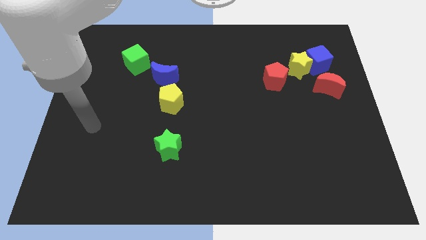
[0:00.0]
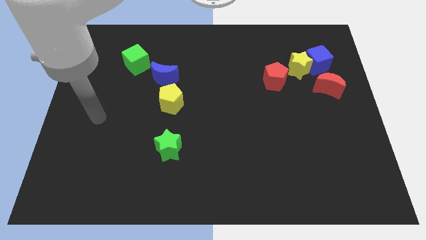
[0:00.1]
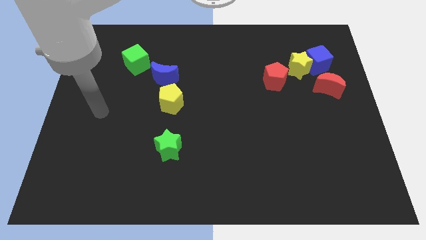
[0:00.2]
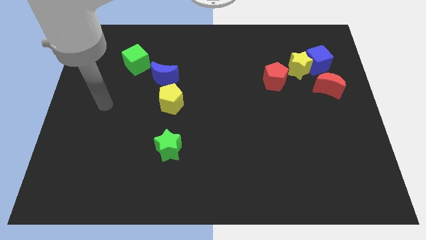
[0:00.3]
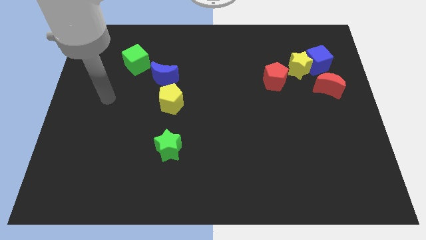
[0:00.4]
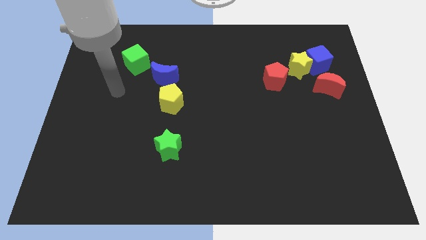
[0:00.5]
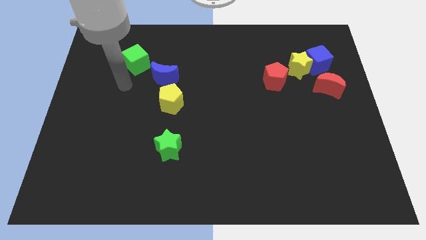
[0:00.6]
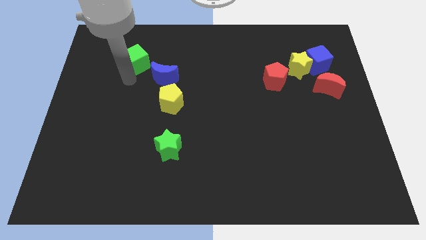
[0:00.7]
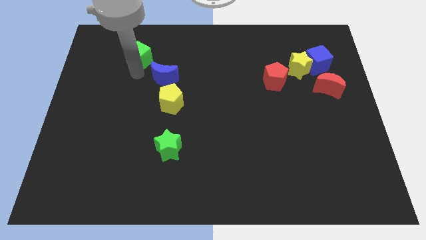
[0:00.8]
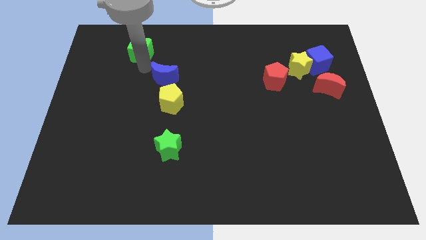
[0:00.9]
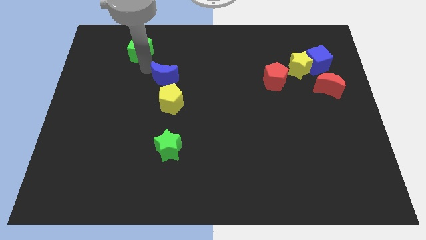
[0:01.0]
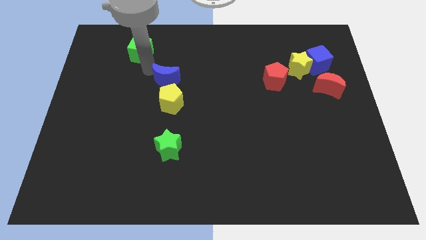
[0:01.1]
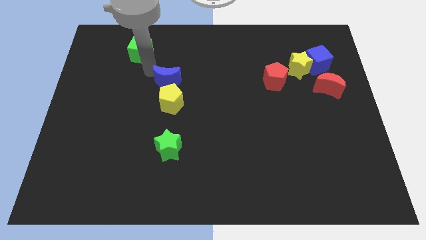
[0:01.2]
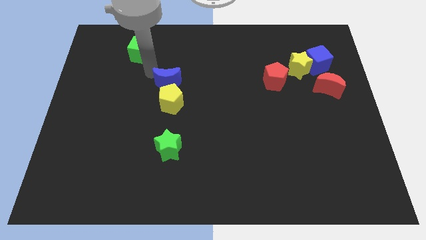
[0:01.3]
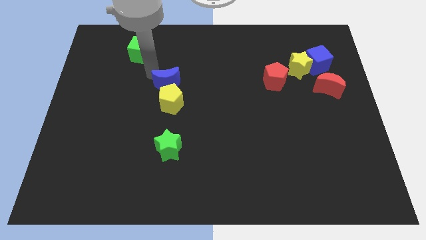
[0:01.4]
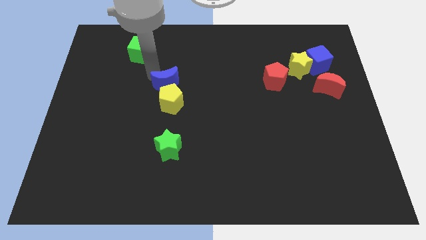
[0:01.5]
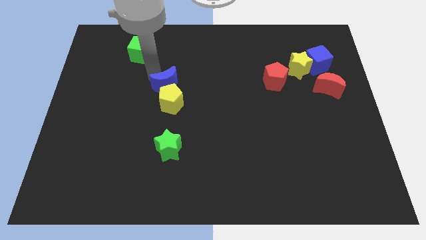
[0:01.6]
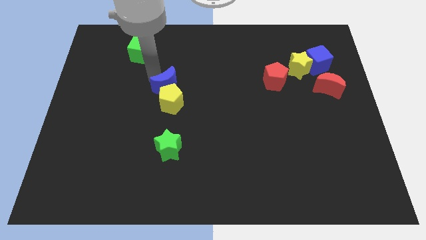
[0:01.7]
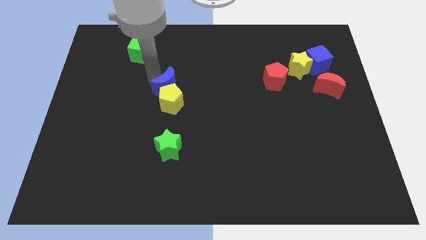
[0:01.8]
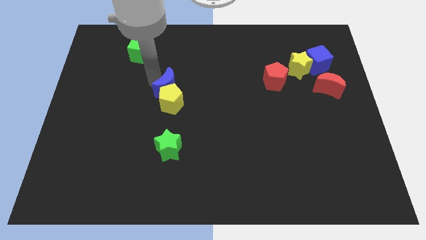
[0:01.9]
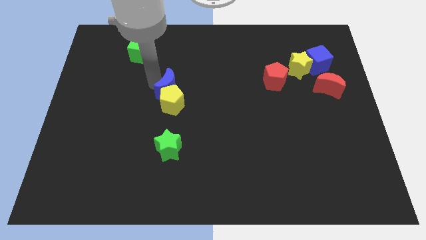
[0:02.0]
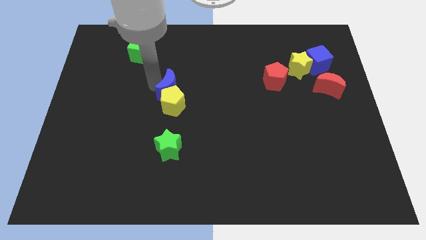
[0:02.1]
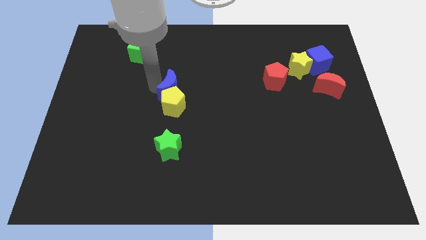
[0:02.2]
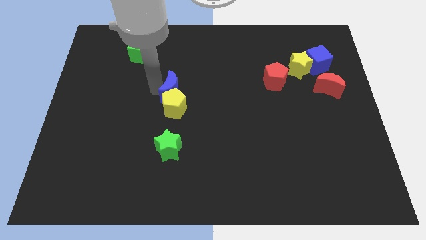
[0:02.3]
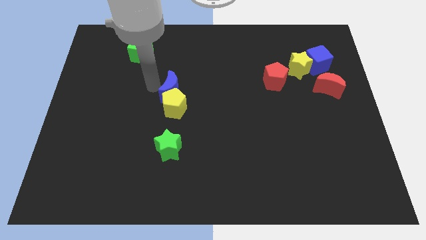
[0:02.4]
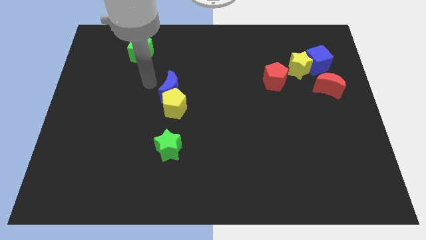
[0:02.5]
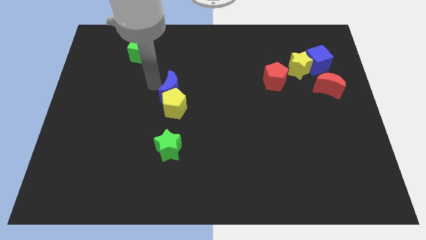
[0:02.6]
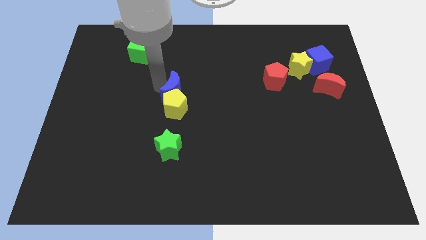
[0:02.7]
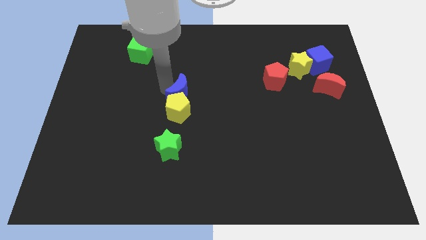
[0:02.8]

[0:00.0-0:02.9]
slightly slide the blue moon downwards and to the right

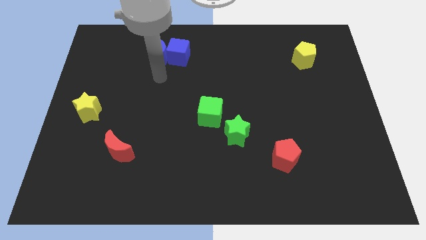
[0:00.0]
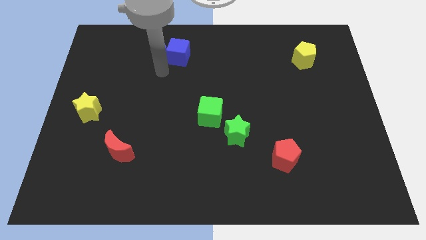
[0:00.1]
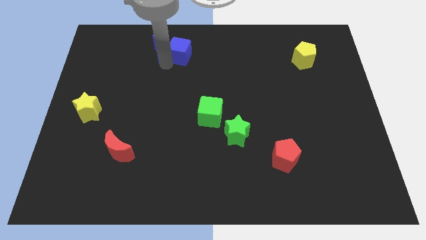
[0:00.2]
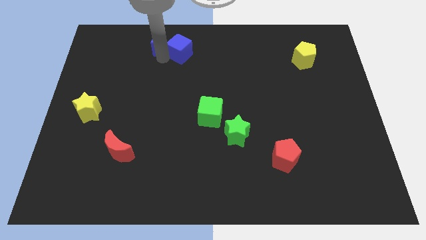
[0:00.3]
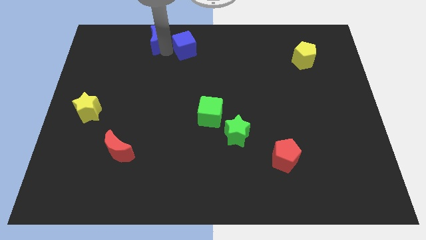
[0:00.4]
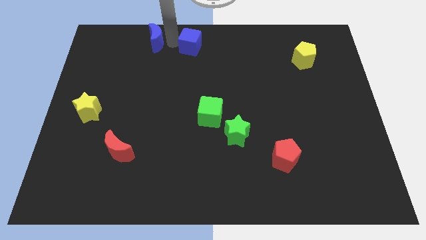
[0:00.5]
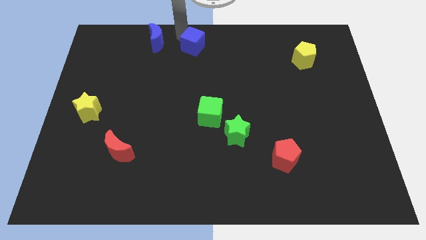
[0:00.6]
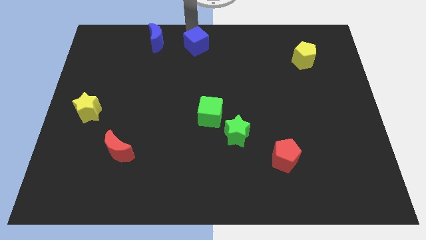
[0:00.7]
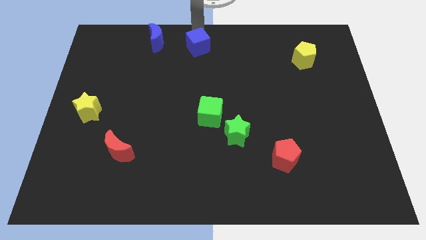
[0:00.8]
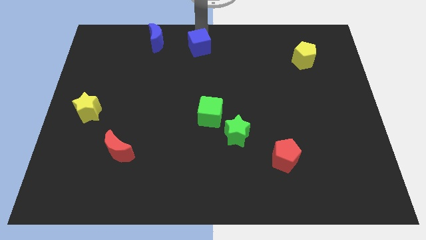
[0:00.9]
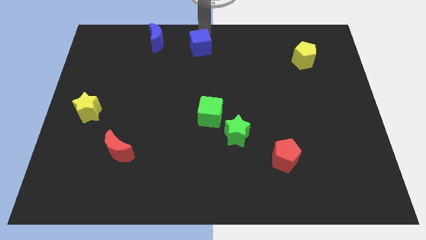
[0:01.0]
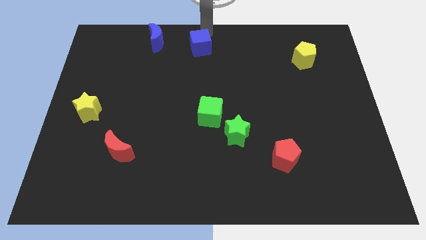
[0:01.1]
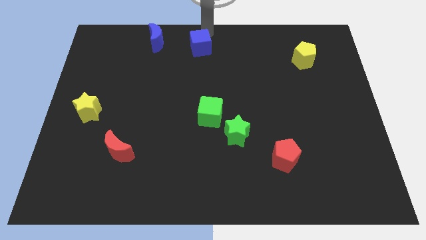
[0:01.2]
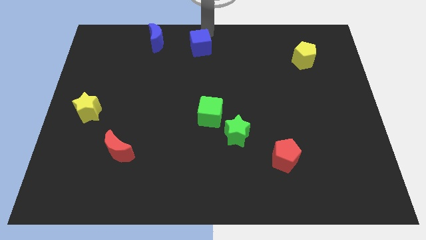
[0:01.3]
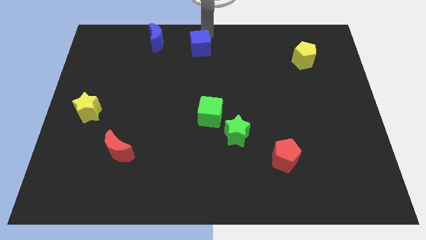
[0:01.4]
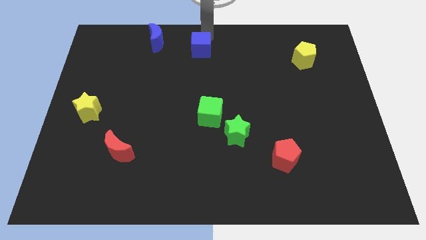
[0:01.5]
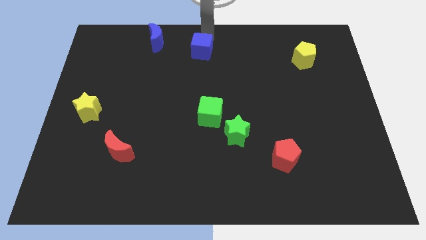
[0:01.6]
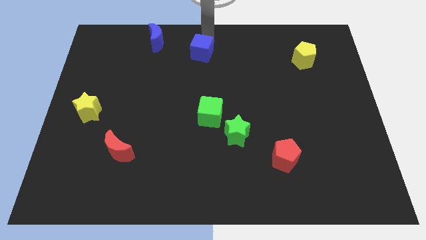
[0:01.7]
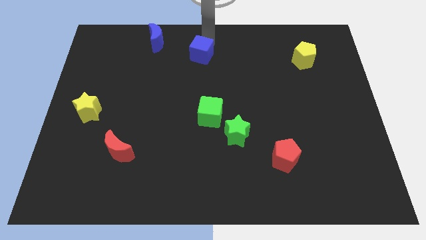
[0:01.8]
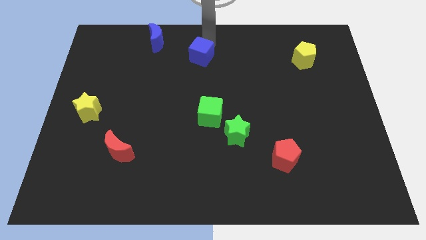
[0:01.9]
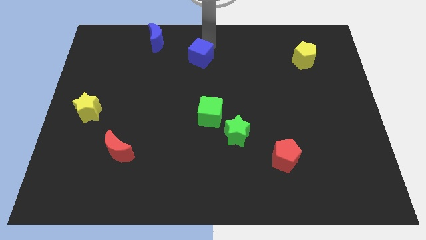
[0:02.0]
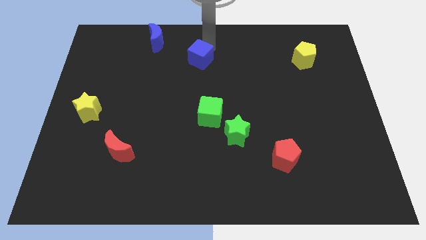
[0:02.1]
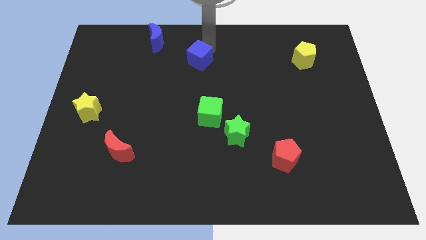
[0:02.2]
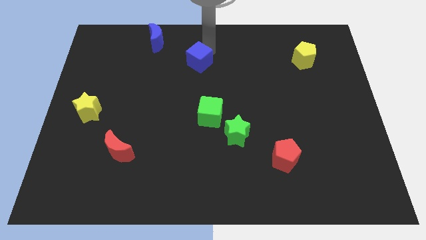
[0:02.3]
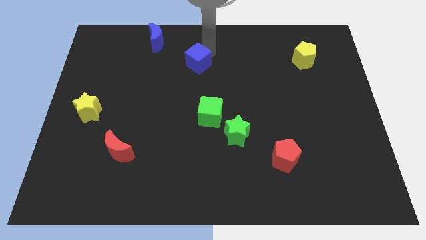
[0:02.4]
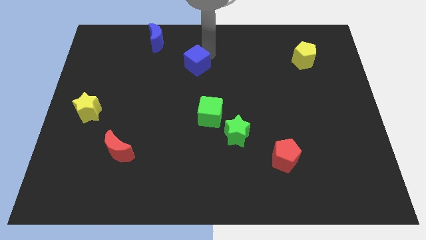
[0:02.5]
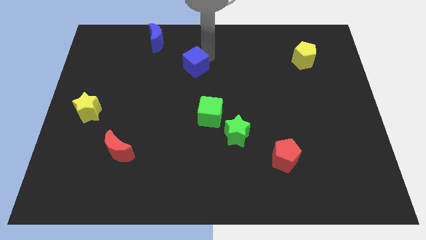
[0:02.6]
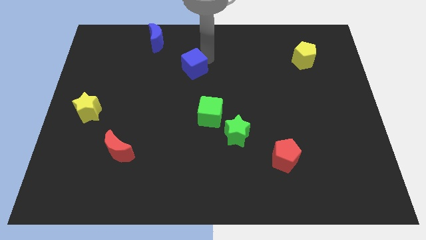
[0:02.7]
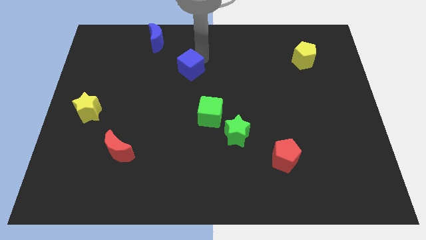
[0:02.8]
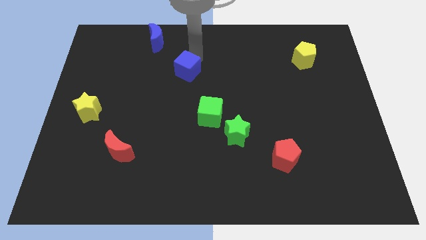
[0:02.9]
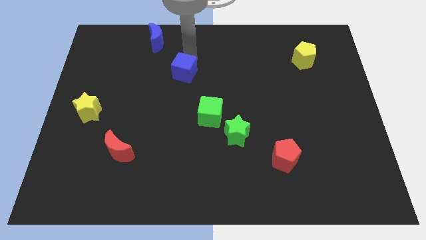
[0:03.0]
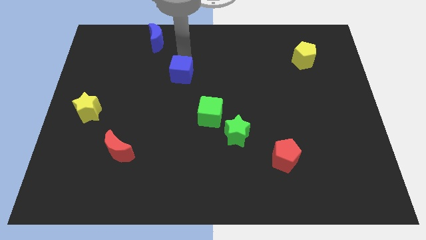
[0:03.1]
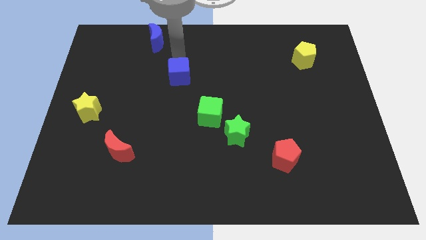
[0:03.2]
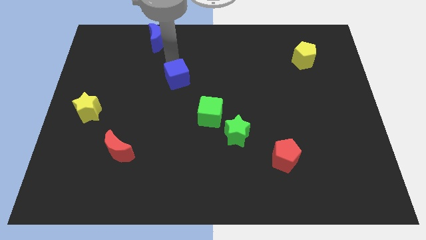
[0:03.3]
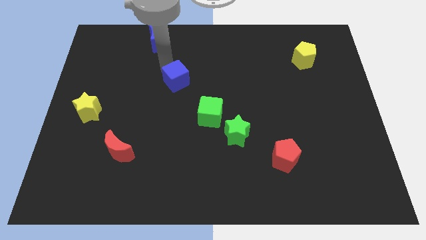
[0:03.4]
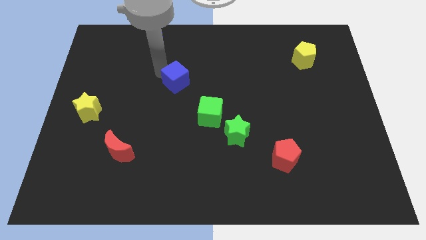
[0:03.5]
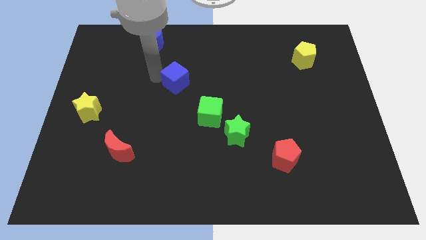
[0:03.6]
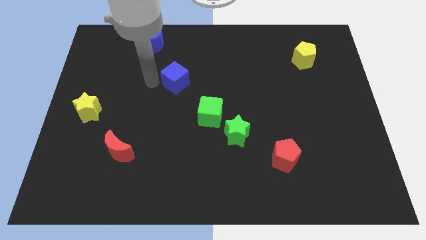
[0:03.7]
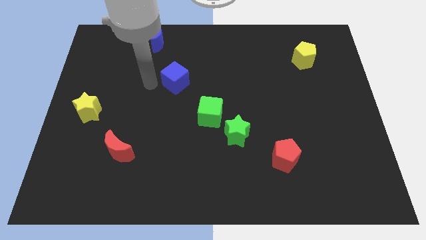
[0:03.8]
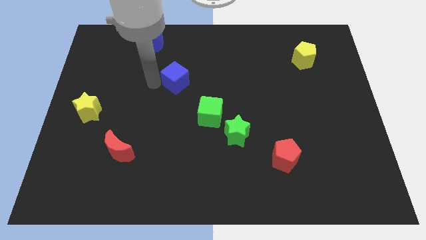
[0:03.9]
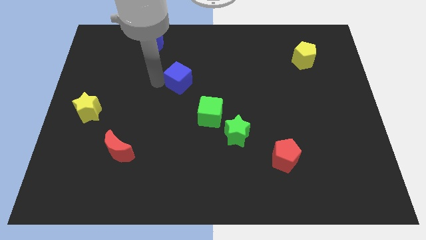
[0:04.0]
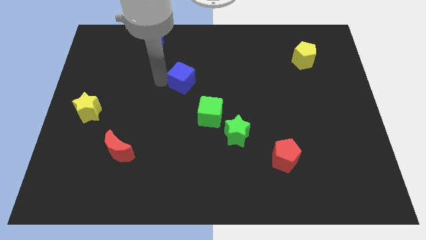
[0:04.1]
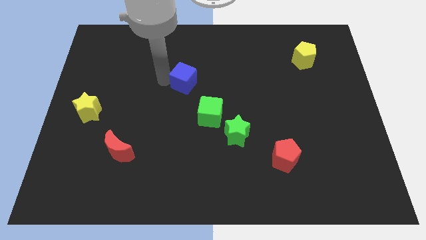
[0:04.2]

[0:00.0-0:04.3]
push the blue cube down and then to the right a little

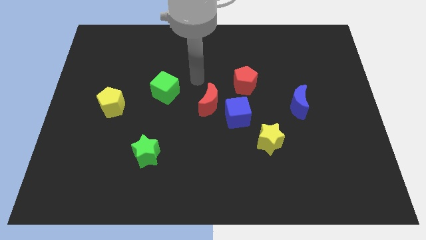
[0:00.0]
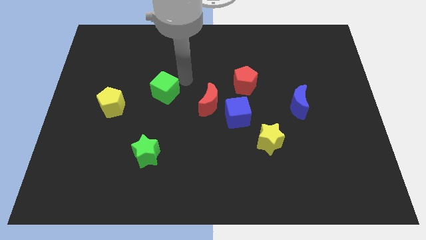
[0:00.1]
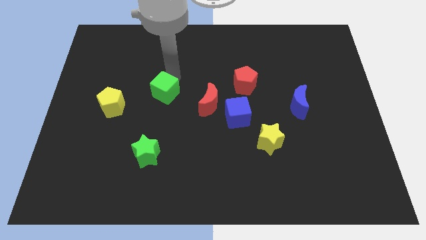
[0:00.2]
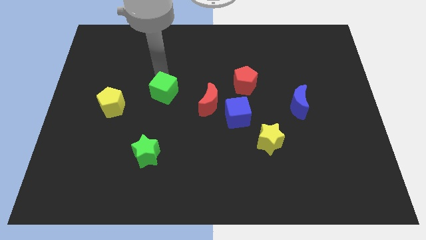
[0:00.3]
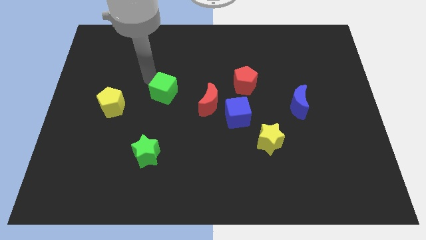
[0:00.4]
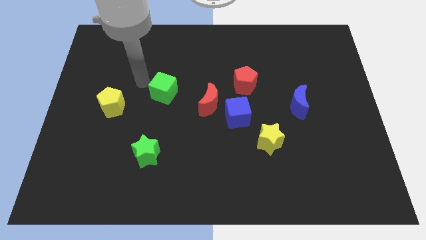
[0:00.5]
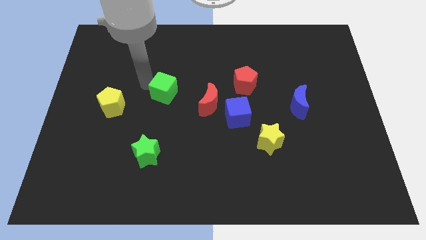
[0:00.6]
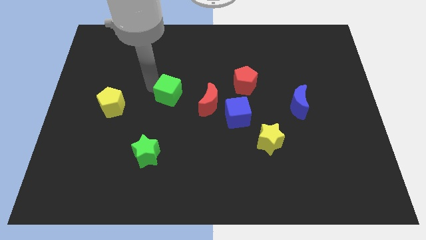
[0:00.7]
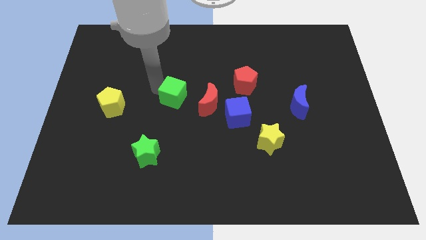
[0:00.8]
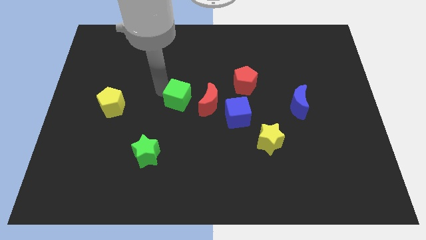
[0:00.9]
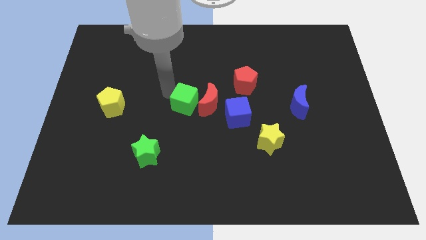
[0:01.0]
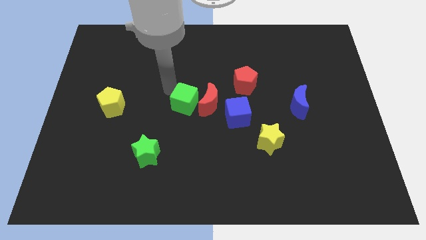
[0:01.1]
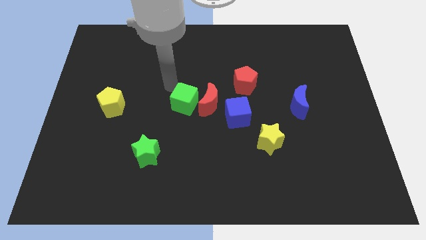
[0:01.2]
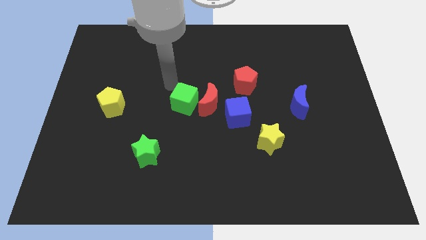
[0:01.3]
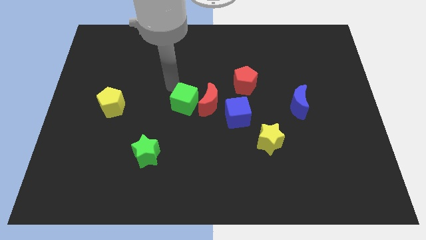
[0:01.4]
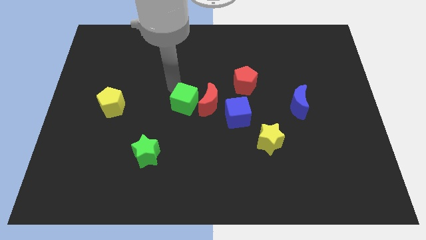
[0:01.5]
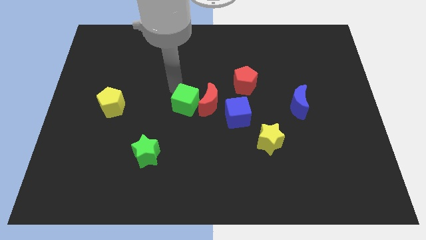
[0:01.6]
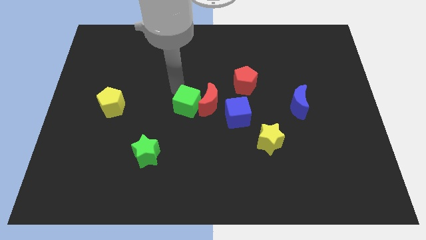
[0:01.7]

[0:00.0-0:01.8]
move the green cube down and to the right diagonally a bit
